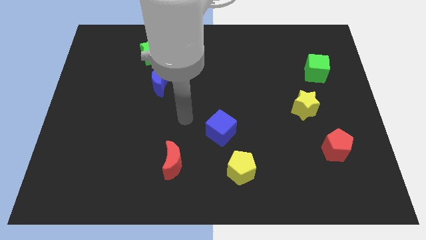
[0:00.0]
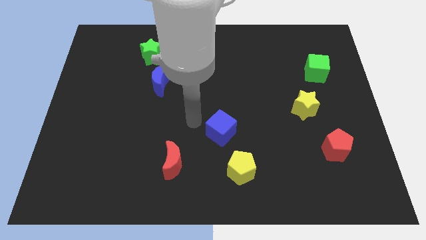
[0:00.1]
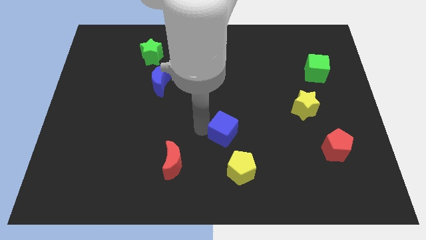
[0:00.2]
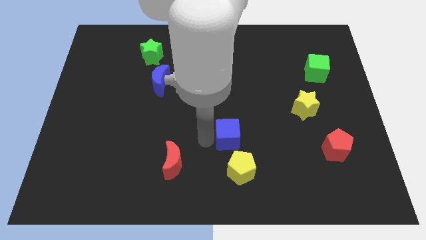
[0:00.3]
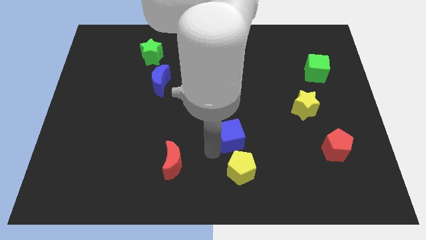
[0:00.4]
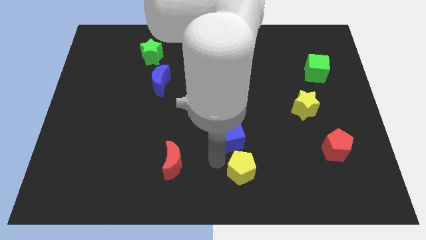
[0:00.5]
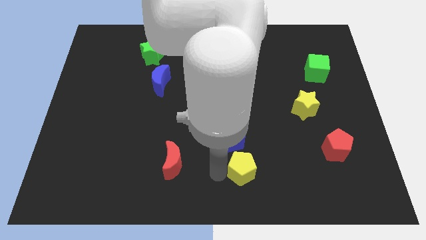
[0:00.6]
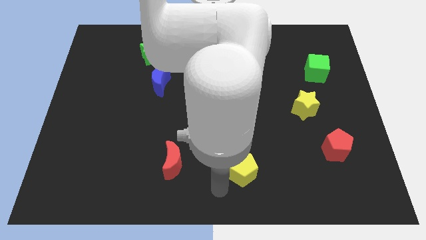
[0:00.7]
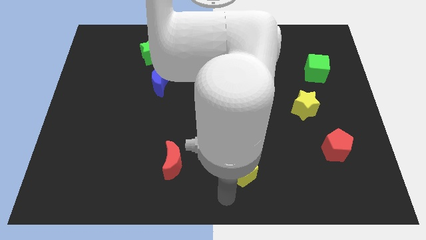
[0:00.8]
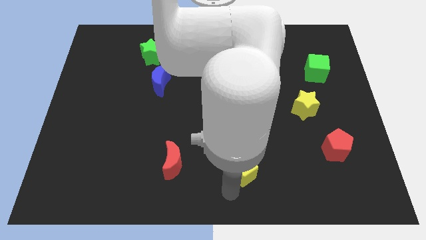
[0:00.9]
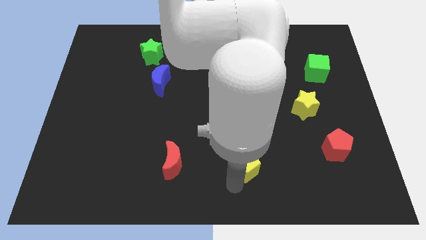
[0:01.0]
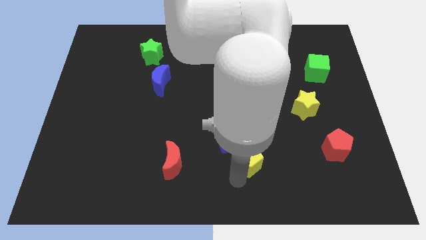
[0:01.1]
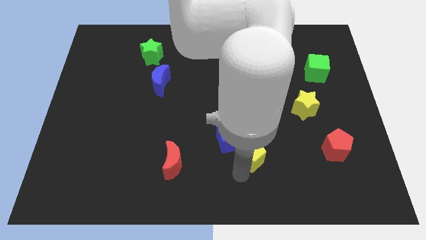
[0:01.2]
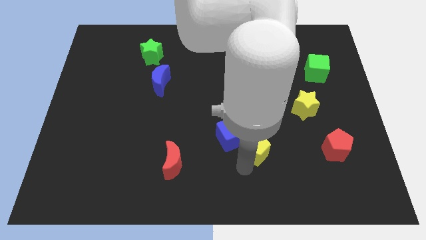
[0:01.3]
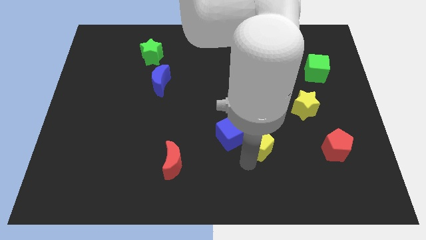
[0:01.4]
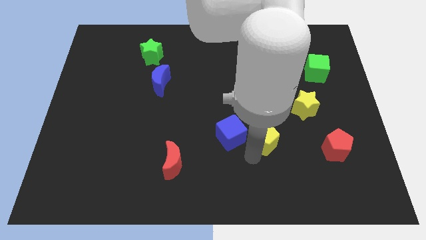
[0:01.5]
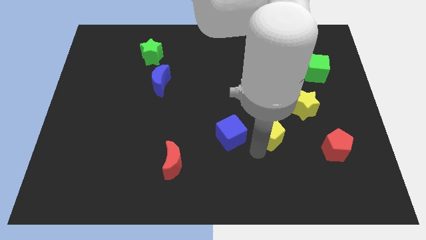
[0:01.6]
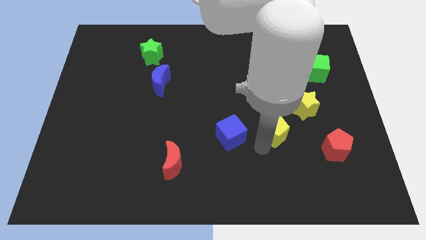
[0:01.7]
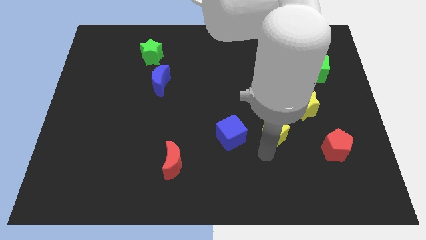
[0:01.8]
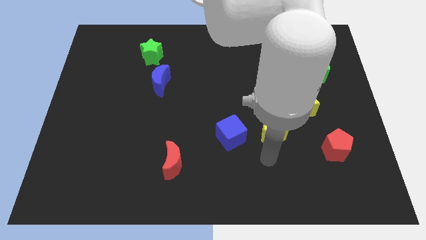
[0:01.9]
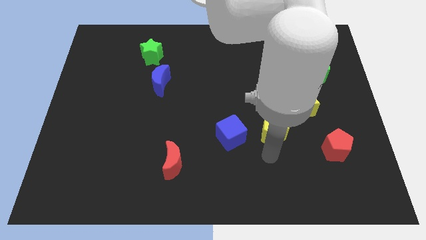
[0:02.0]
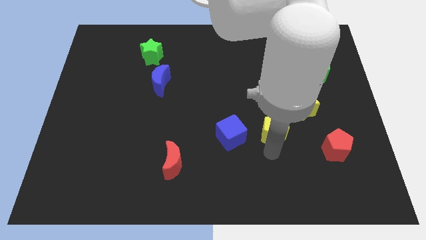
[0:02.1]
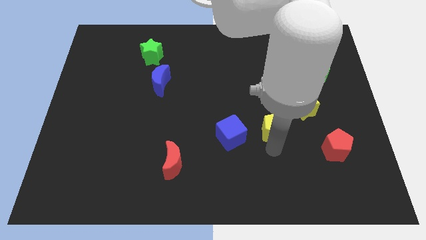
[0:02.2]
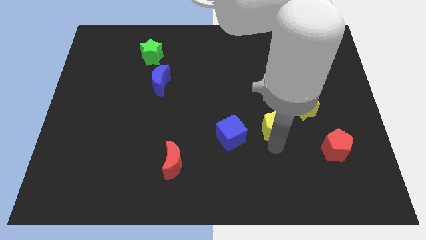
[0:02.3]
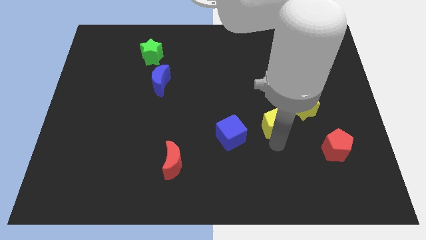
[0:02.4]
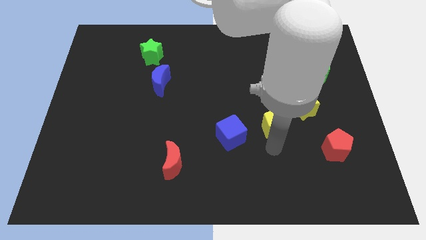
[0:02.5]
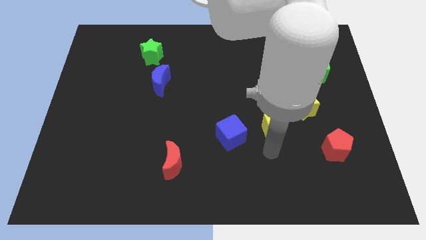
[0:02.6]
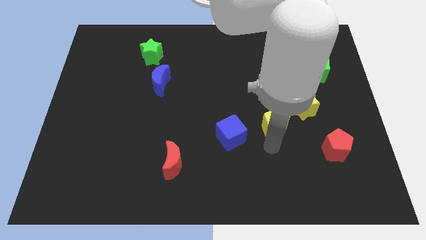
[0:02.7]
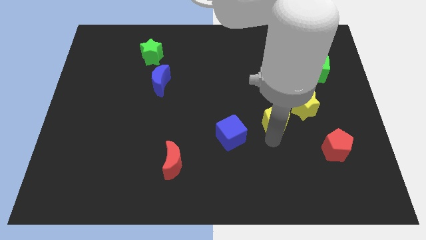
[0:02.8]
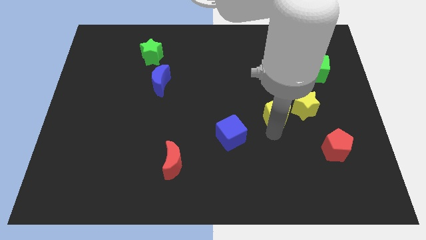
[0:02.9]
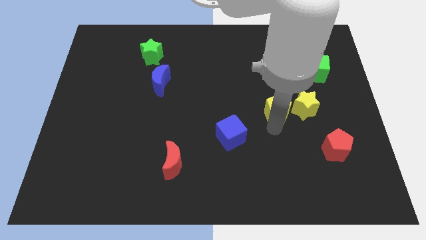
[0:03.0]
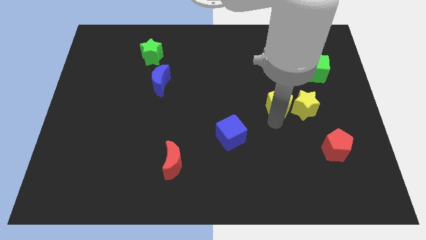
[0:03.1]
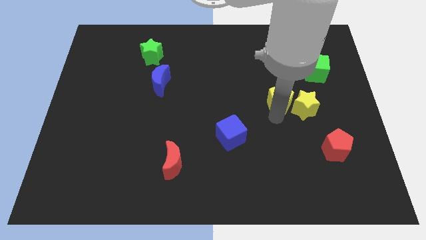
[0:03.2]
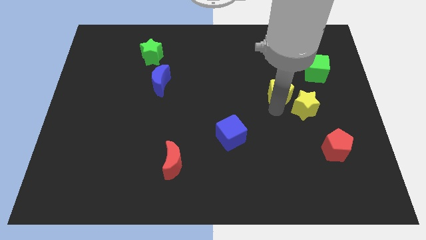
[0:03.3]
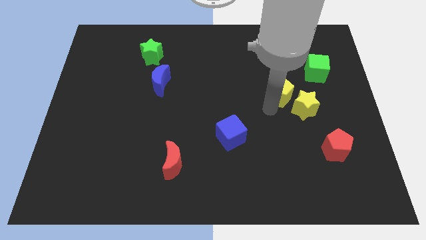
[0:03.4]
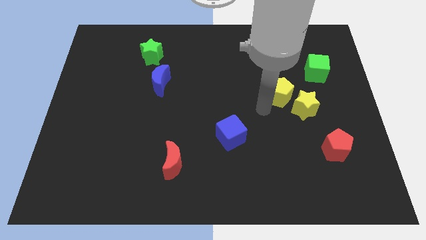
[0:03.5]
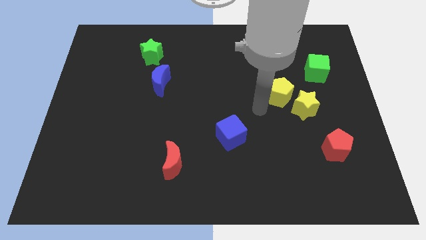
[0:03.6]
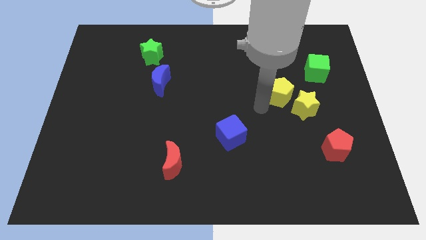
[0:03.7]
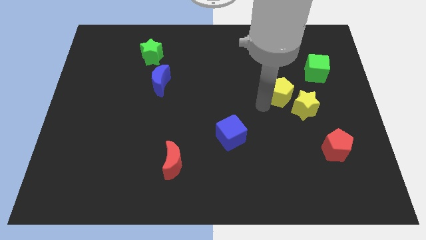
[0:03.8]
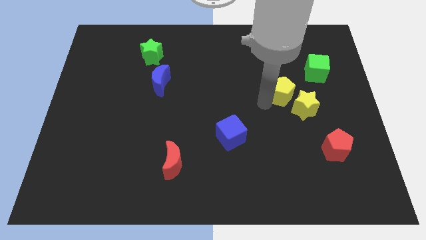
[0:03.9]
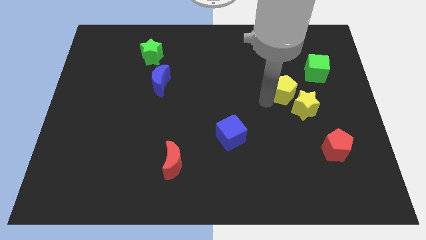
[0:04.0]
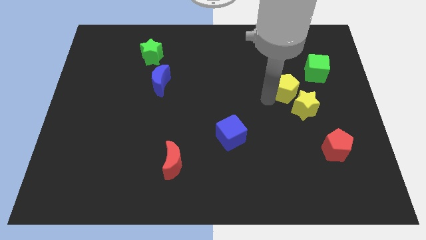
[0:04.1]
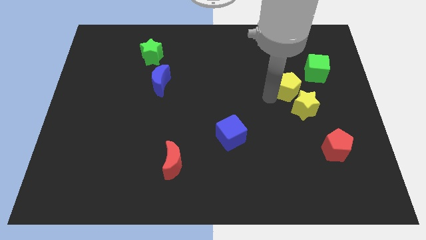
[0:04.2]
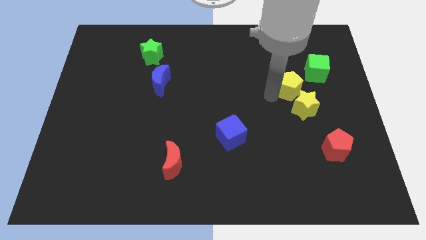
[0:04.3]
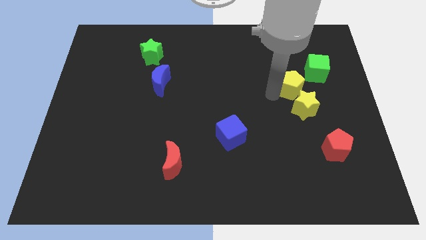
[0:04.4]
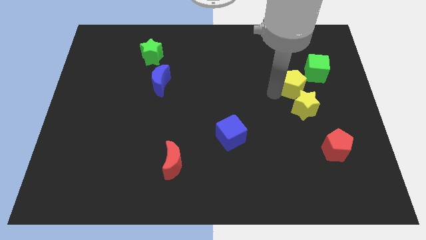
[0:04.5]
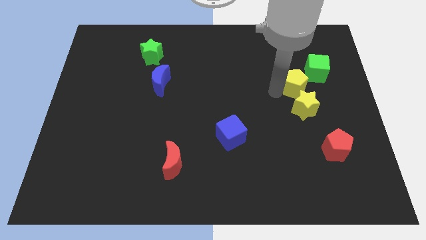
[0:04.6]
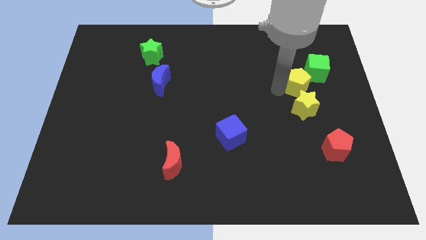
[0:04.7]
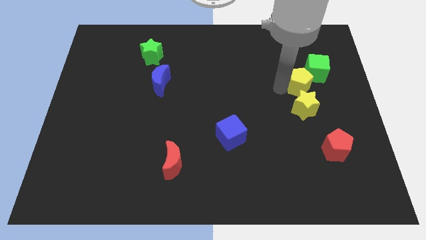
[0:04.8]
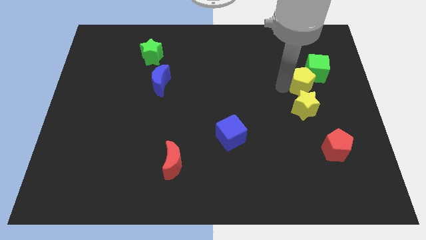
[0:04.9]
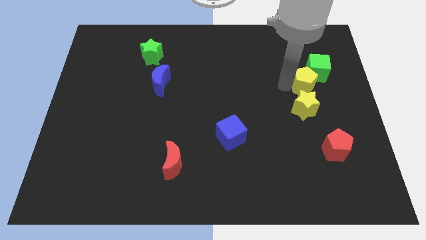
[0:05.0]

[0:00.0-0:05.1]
move the yellow pentagon to the green cube

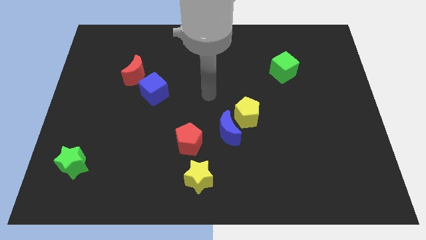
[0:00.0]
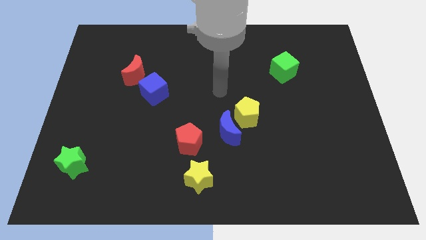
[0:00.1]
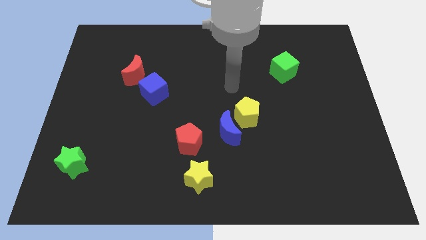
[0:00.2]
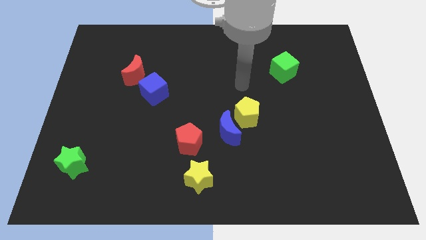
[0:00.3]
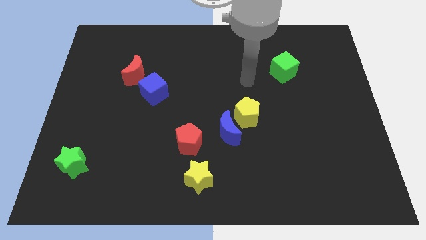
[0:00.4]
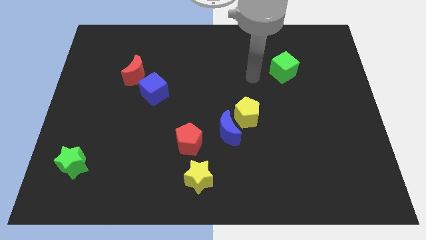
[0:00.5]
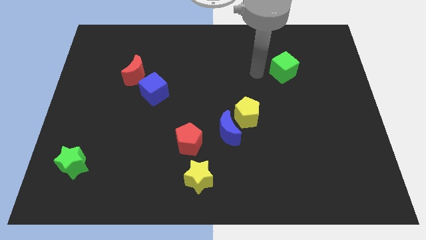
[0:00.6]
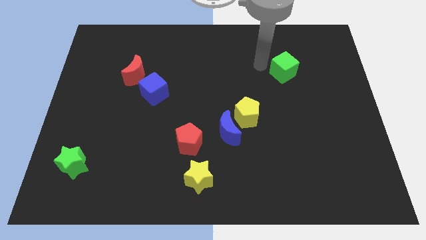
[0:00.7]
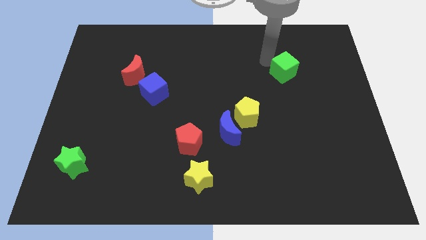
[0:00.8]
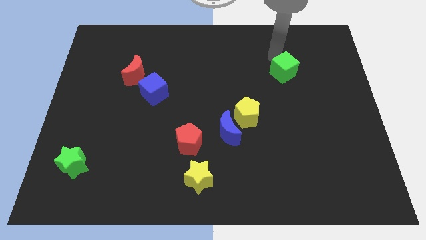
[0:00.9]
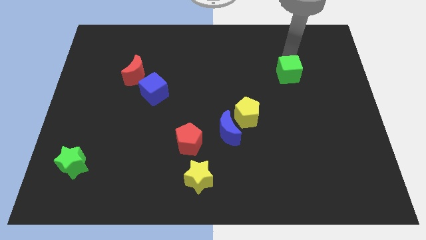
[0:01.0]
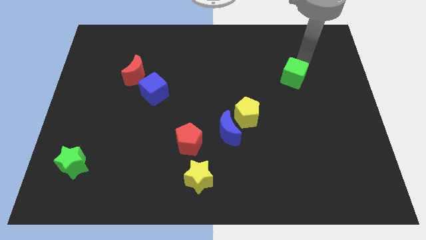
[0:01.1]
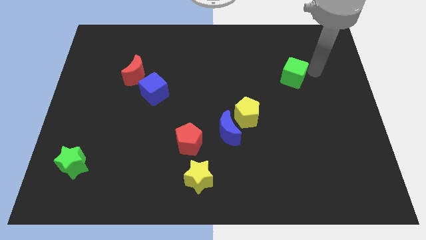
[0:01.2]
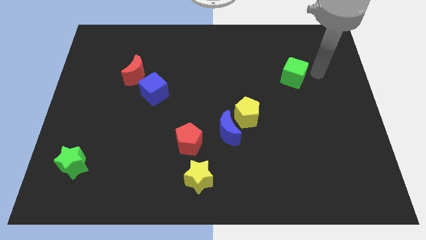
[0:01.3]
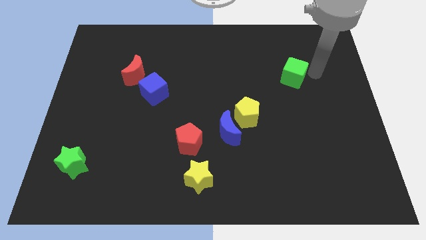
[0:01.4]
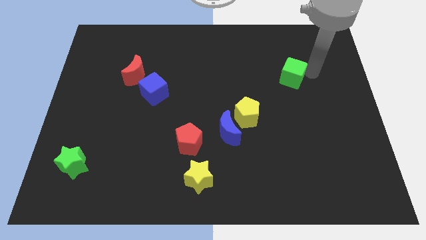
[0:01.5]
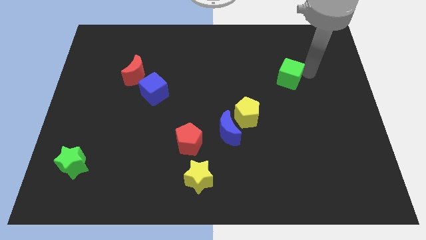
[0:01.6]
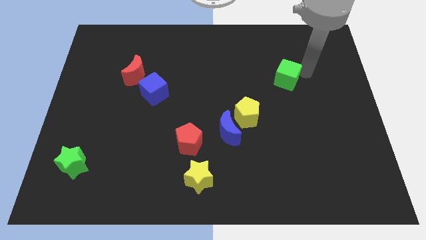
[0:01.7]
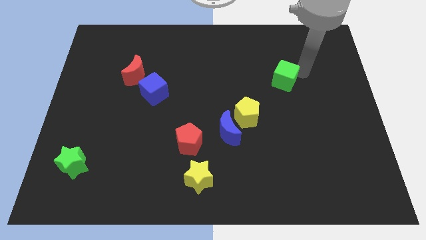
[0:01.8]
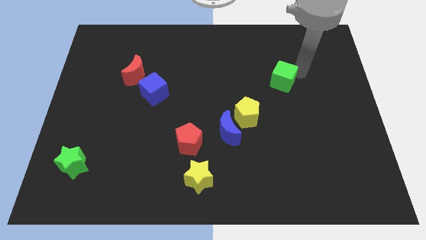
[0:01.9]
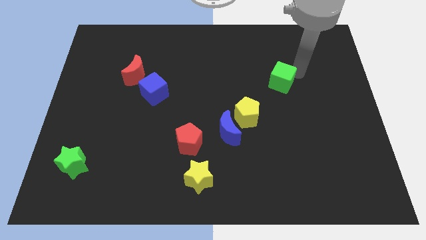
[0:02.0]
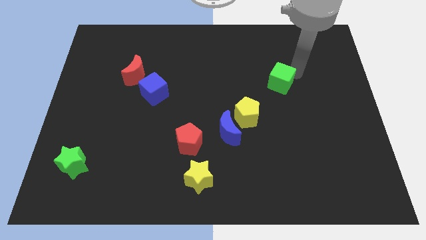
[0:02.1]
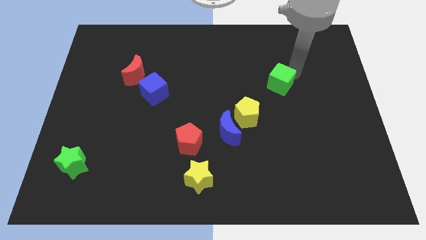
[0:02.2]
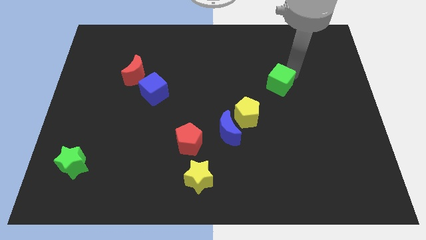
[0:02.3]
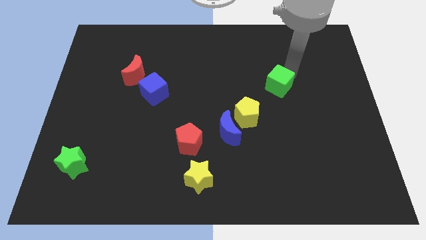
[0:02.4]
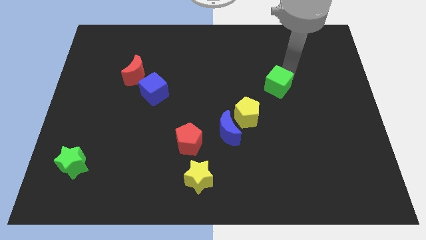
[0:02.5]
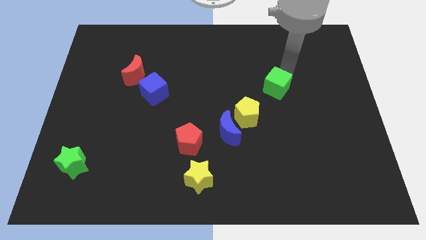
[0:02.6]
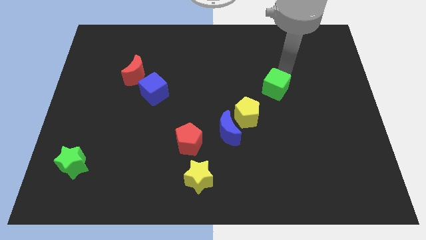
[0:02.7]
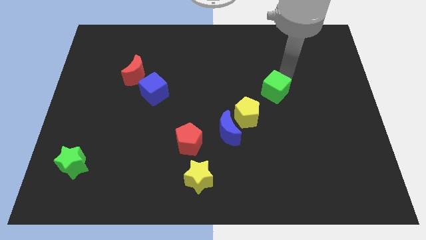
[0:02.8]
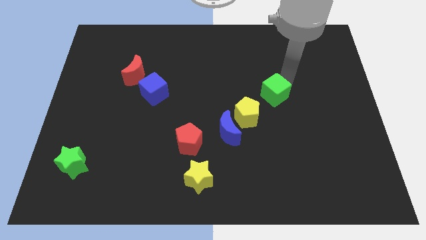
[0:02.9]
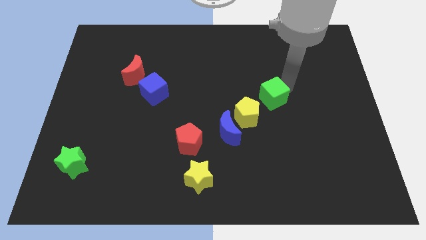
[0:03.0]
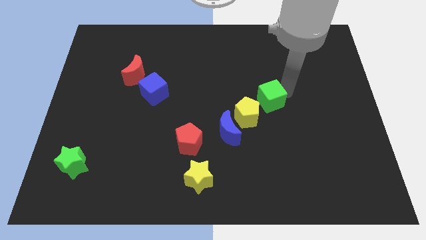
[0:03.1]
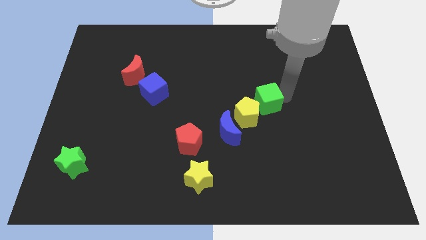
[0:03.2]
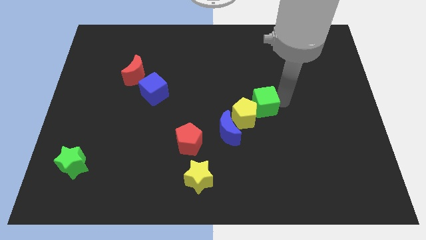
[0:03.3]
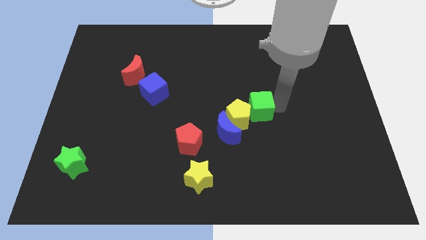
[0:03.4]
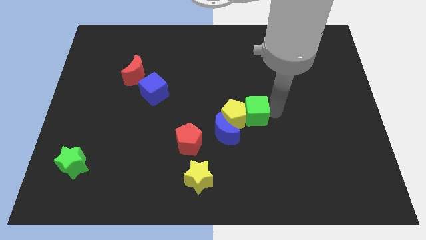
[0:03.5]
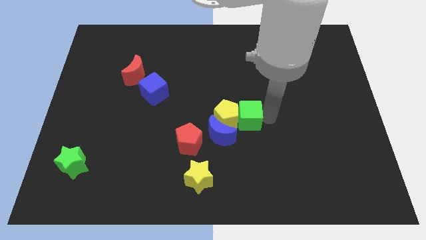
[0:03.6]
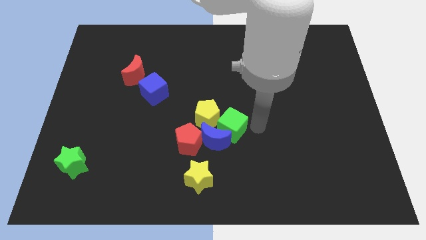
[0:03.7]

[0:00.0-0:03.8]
slide the green cube close to the blue moon
